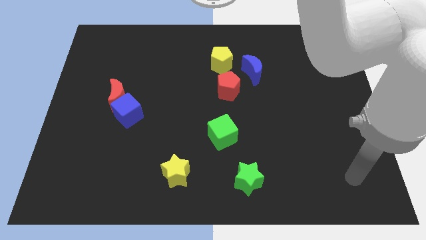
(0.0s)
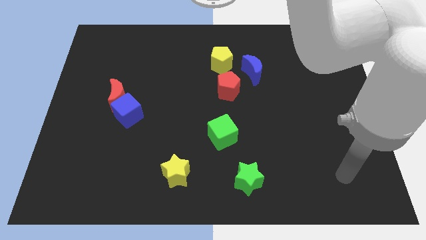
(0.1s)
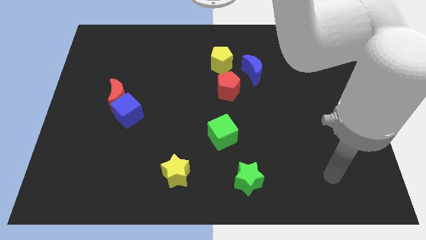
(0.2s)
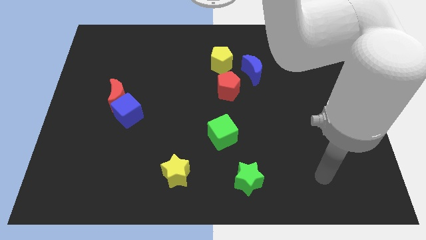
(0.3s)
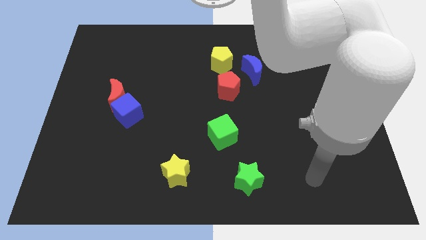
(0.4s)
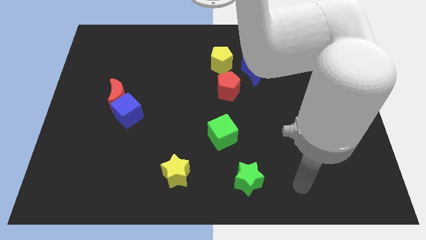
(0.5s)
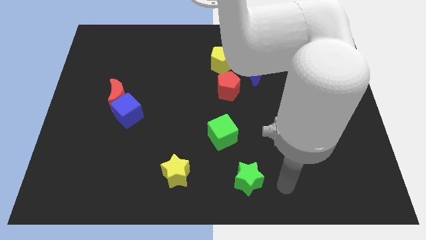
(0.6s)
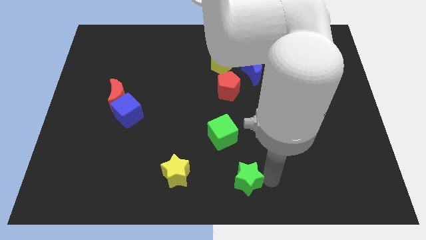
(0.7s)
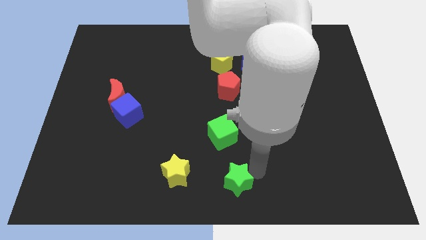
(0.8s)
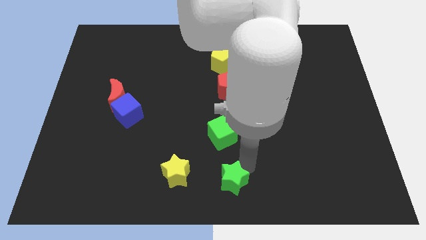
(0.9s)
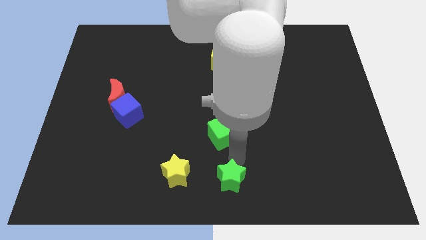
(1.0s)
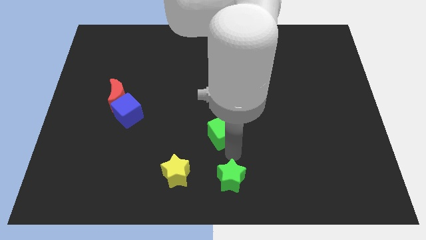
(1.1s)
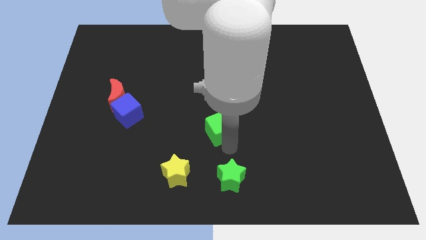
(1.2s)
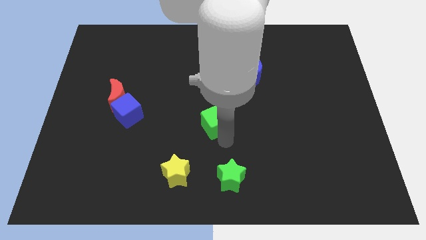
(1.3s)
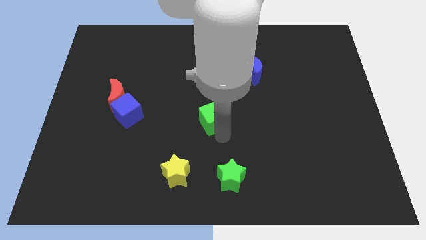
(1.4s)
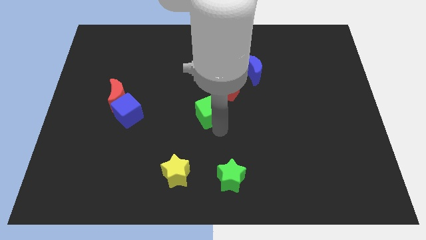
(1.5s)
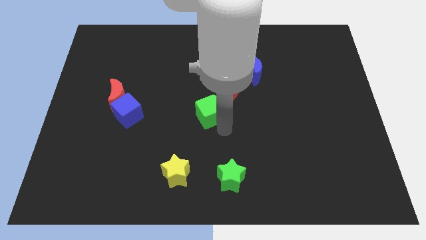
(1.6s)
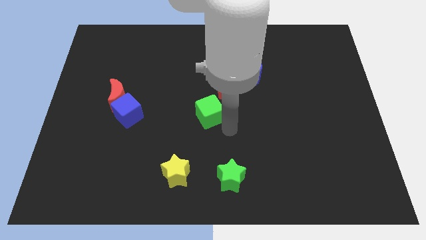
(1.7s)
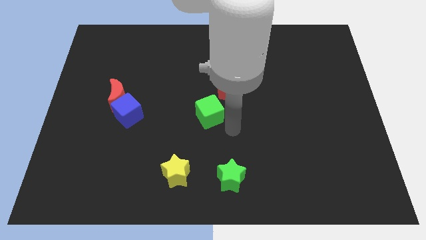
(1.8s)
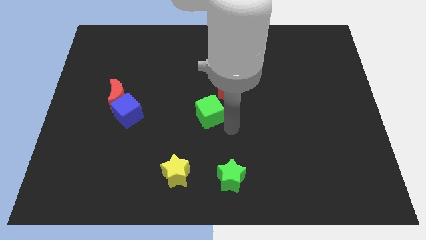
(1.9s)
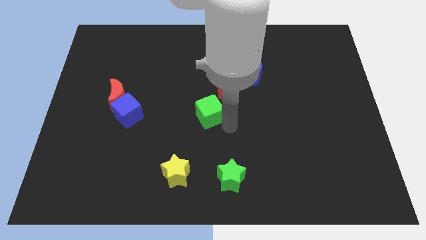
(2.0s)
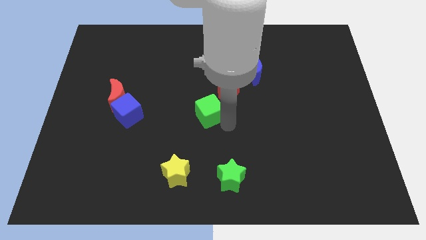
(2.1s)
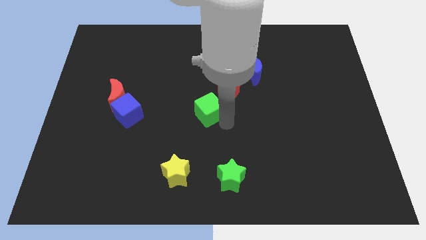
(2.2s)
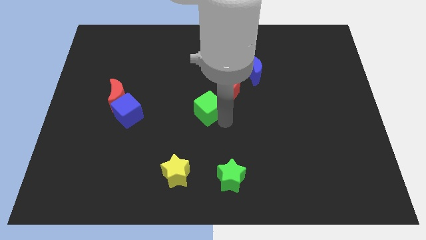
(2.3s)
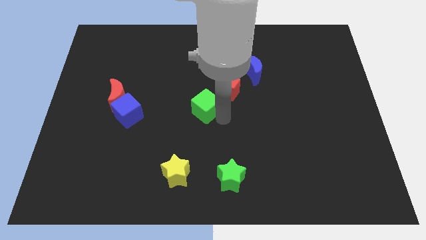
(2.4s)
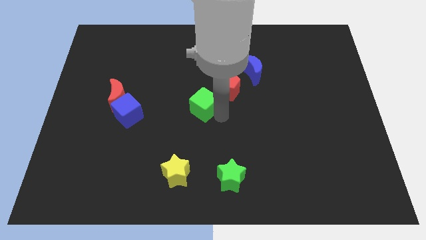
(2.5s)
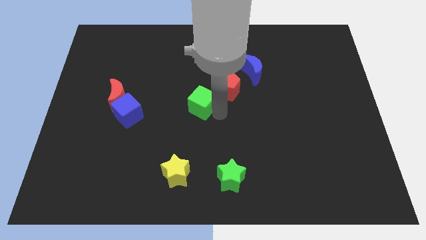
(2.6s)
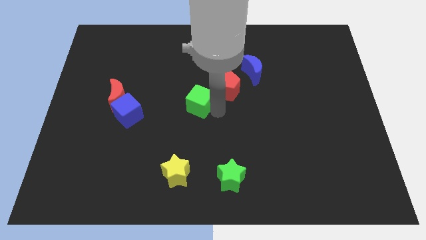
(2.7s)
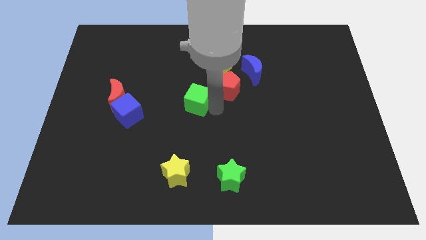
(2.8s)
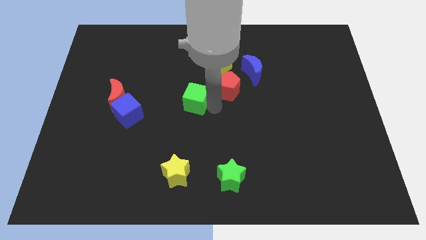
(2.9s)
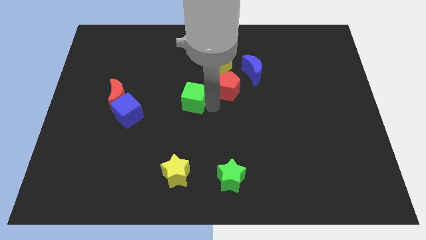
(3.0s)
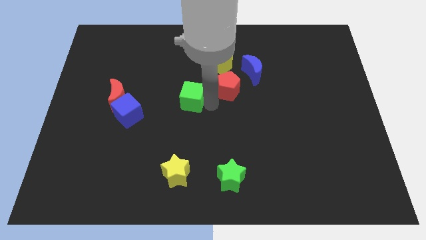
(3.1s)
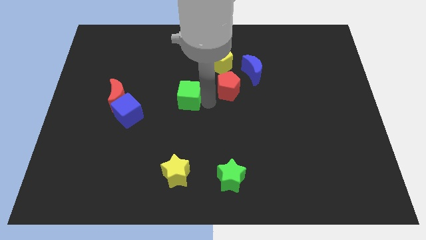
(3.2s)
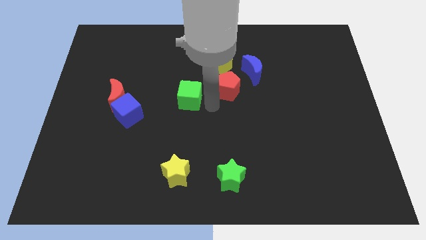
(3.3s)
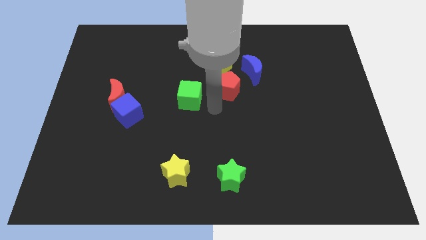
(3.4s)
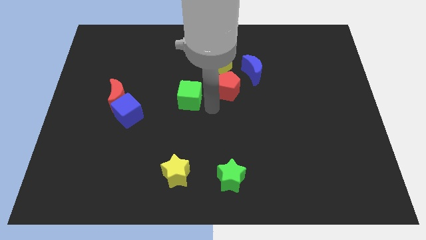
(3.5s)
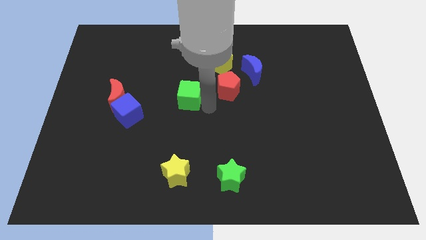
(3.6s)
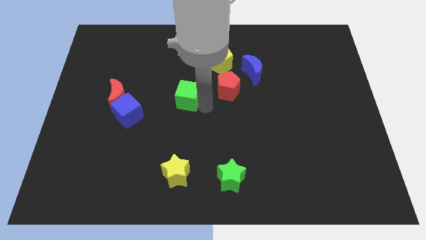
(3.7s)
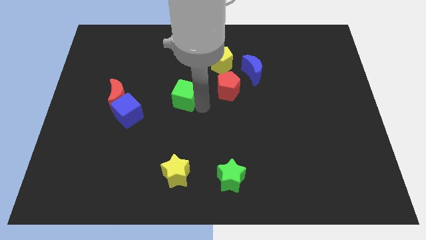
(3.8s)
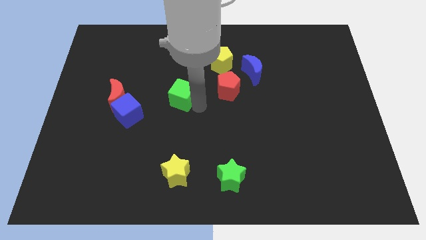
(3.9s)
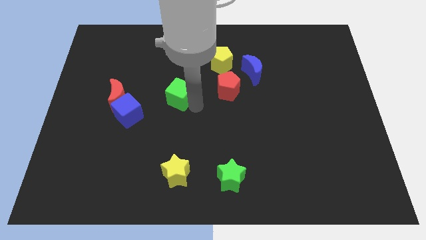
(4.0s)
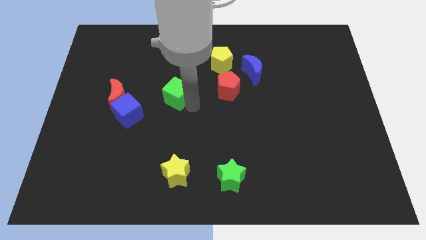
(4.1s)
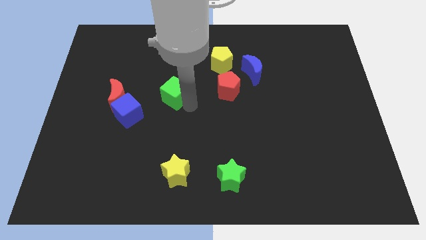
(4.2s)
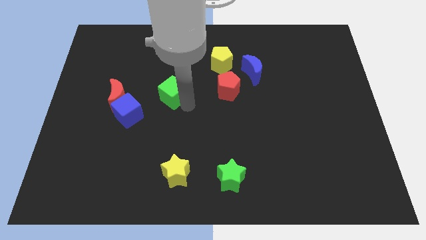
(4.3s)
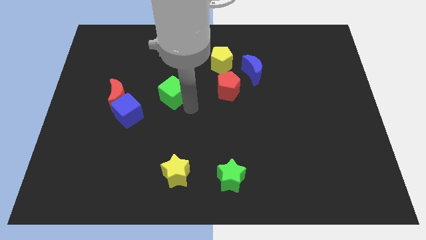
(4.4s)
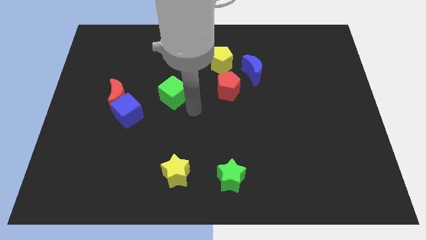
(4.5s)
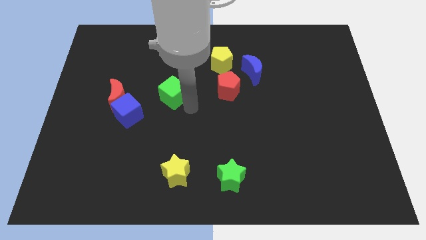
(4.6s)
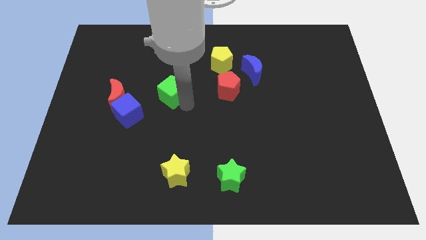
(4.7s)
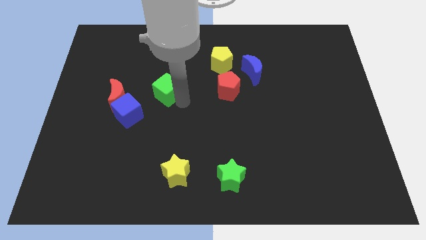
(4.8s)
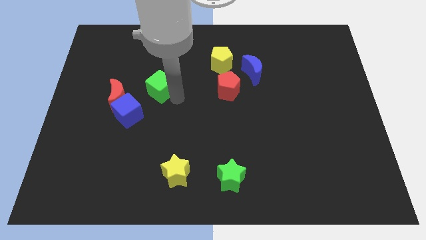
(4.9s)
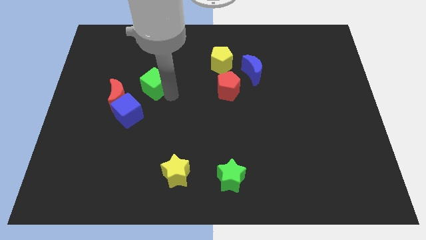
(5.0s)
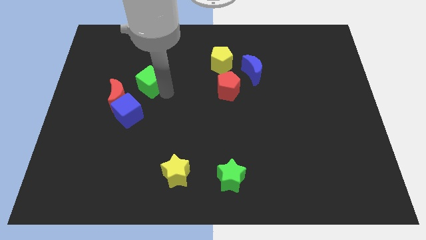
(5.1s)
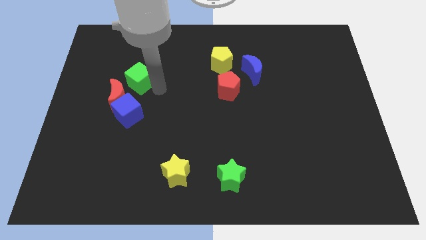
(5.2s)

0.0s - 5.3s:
put the green cube to the top side of the red moon

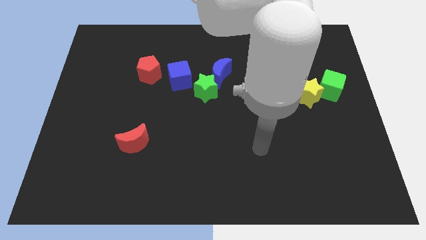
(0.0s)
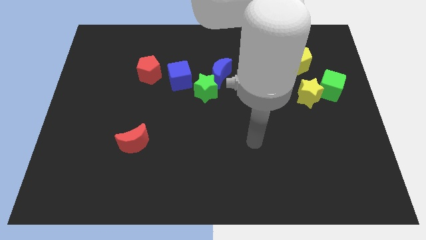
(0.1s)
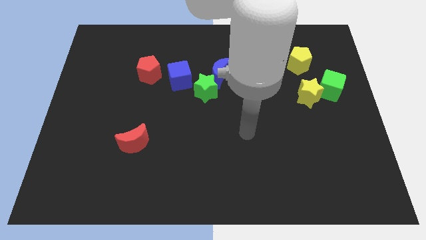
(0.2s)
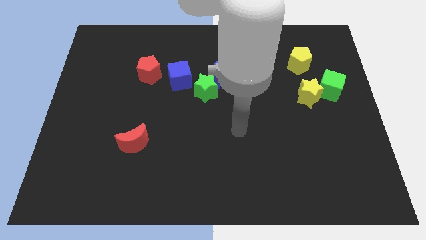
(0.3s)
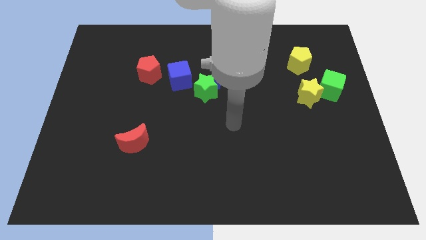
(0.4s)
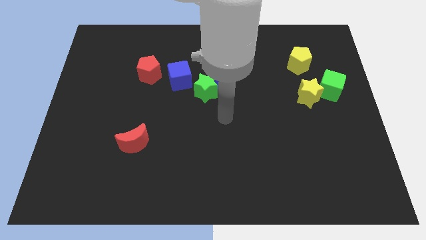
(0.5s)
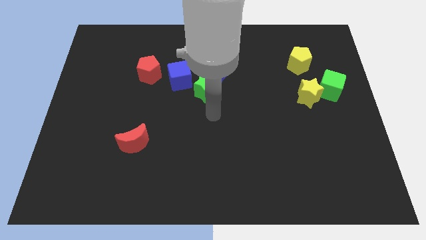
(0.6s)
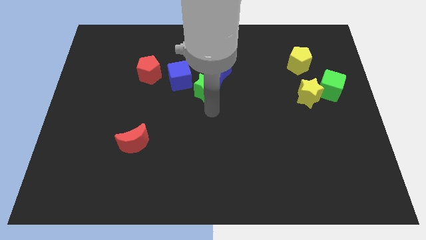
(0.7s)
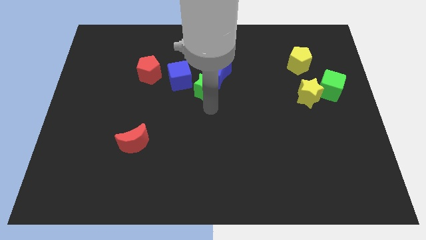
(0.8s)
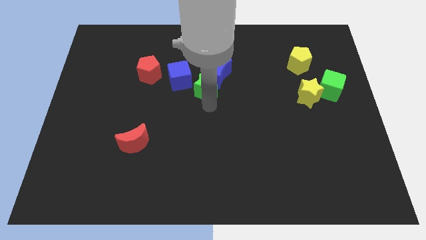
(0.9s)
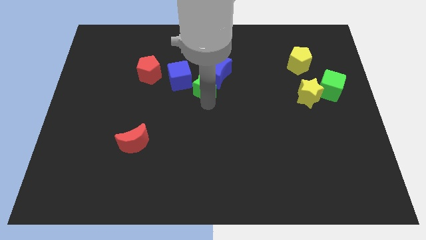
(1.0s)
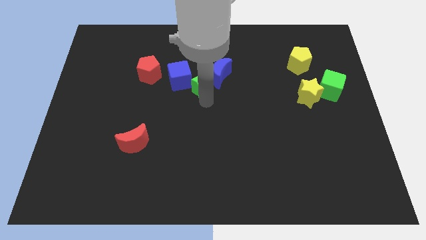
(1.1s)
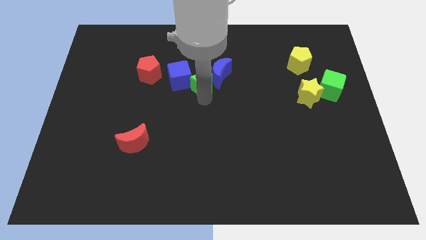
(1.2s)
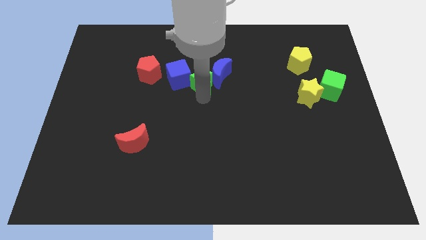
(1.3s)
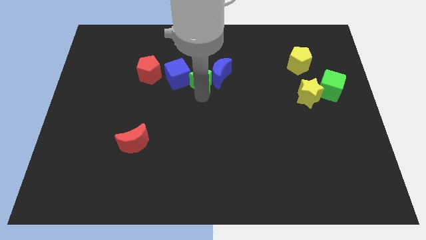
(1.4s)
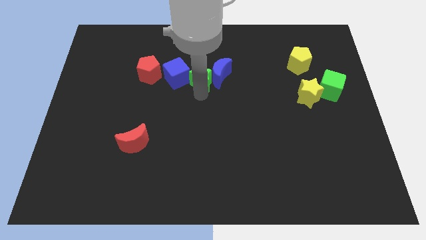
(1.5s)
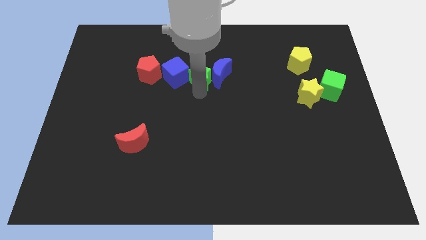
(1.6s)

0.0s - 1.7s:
slide the green star to the top left of the blue moon
